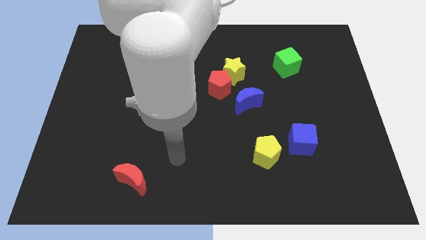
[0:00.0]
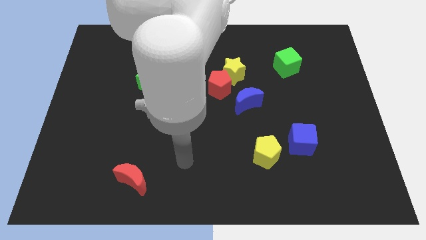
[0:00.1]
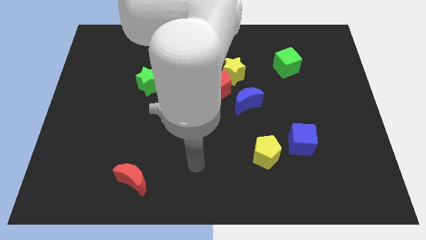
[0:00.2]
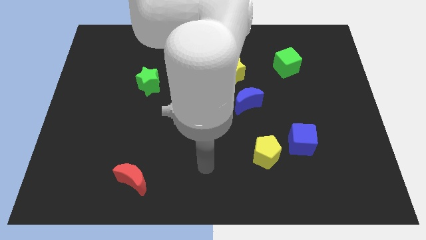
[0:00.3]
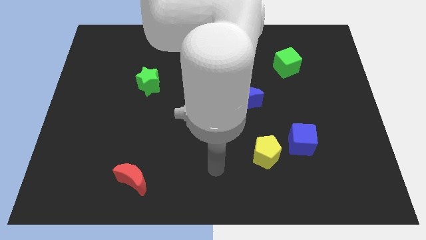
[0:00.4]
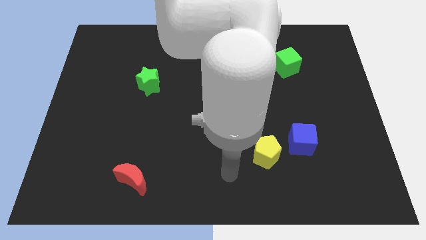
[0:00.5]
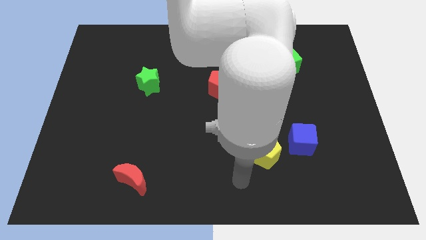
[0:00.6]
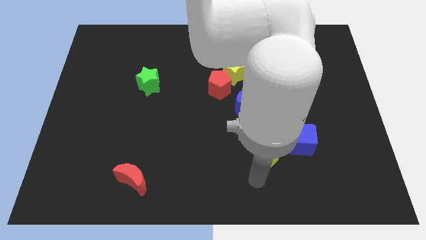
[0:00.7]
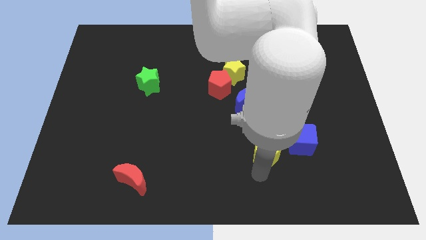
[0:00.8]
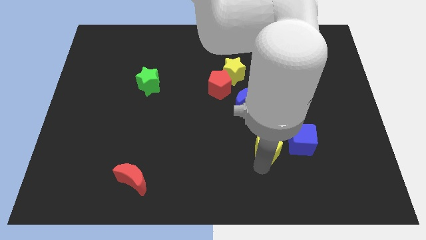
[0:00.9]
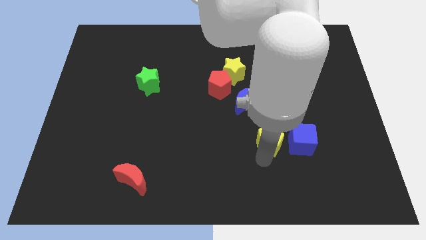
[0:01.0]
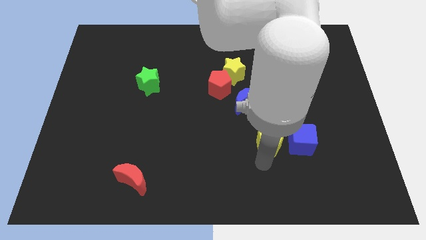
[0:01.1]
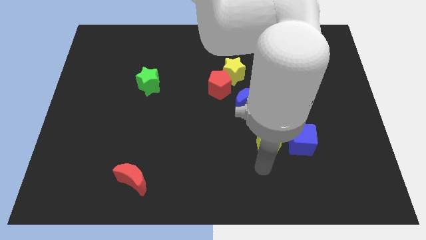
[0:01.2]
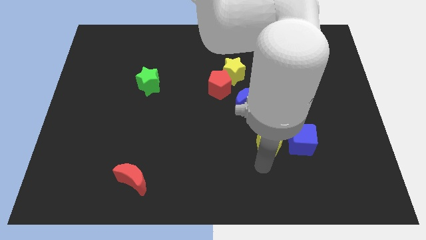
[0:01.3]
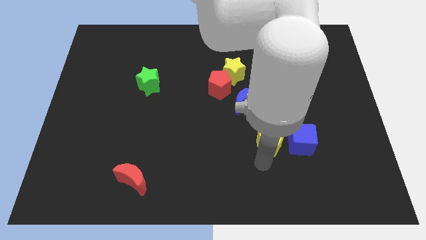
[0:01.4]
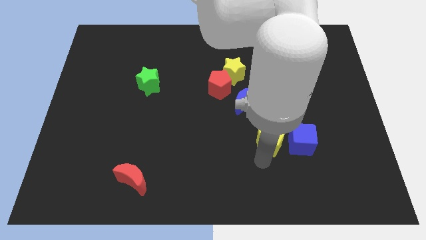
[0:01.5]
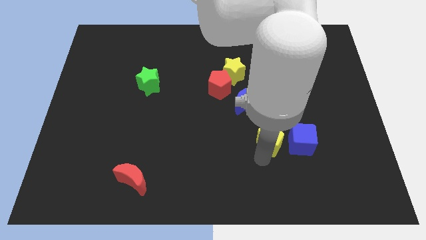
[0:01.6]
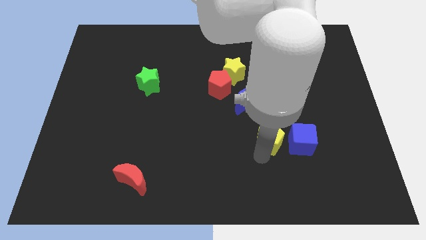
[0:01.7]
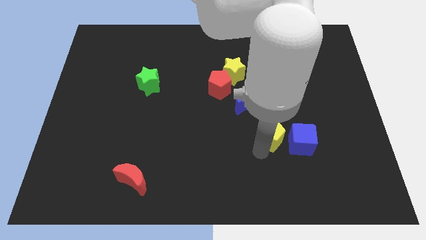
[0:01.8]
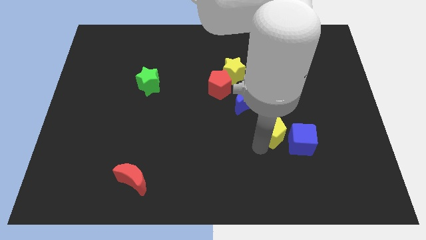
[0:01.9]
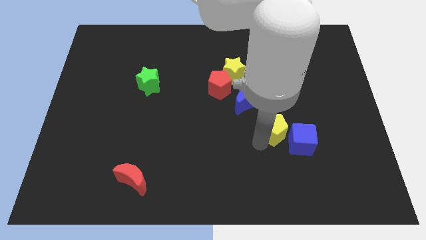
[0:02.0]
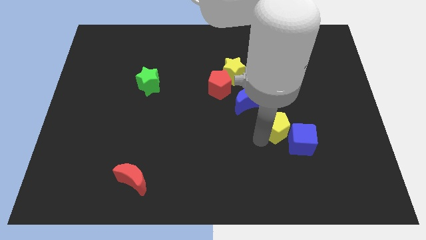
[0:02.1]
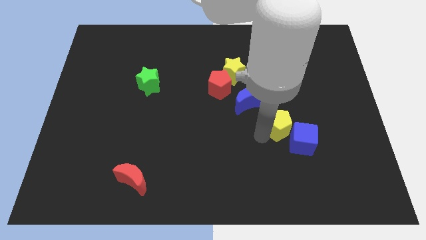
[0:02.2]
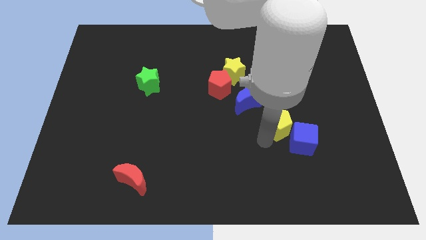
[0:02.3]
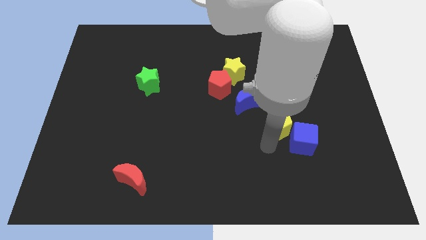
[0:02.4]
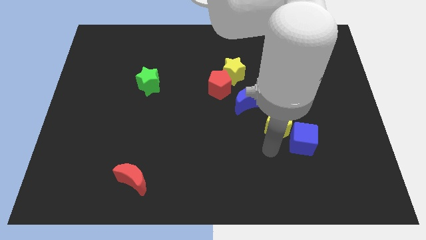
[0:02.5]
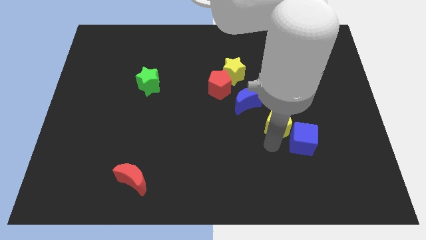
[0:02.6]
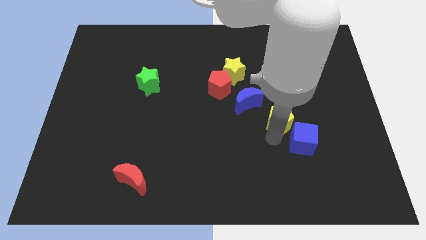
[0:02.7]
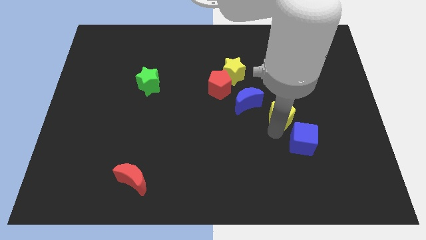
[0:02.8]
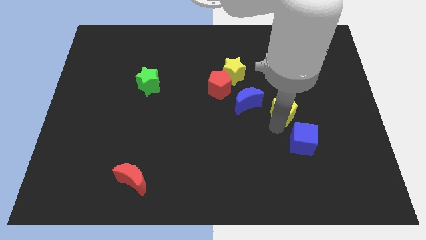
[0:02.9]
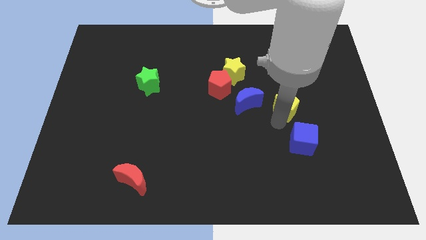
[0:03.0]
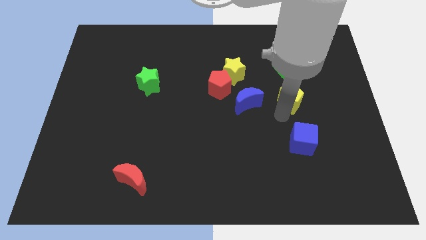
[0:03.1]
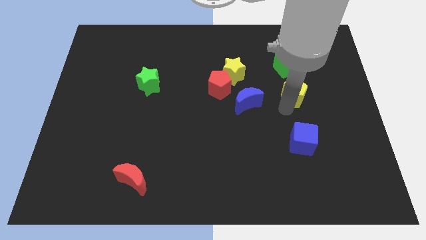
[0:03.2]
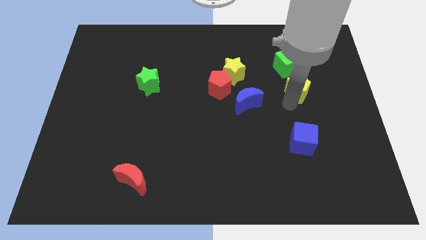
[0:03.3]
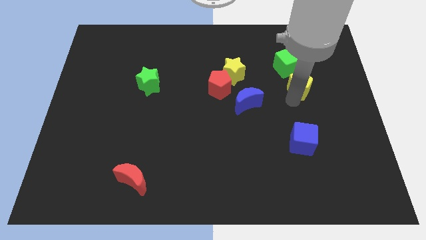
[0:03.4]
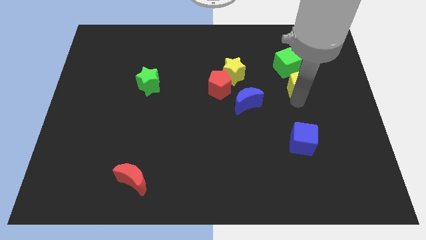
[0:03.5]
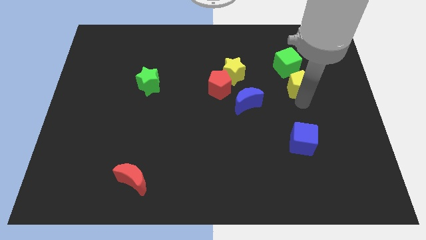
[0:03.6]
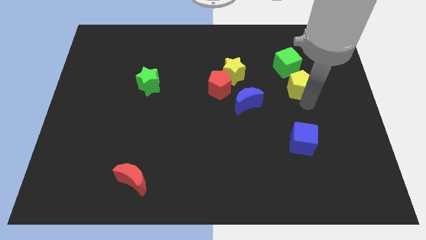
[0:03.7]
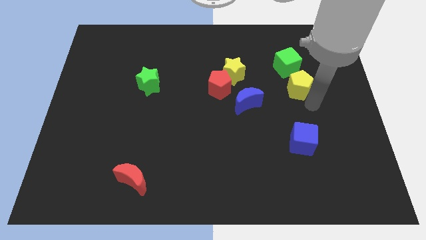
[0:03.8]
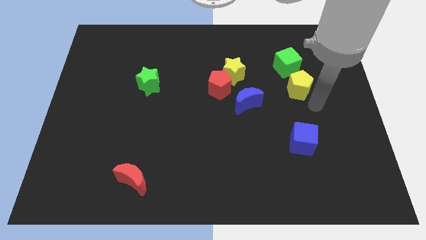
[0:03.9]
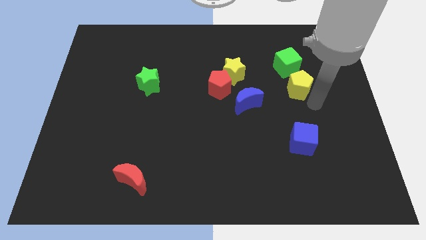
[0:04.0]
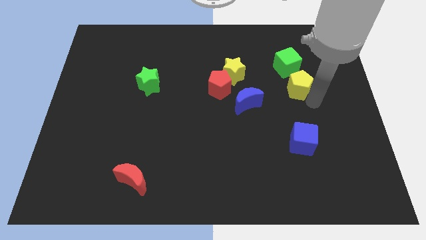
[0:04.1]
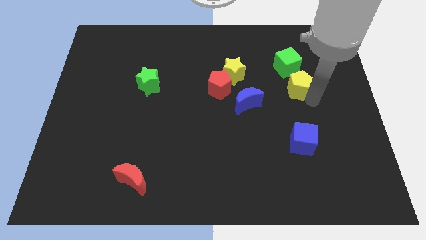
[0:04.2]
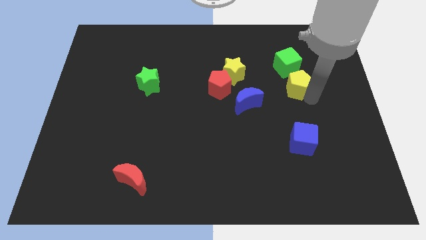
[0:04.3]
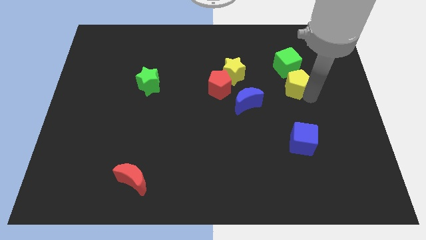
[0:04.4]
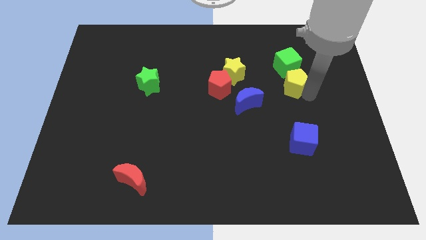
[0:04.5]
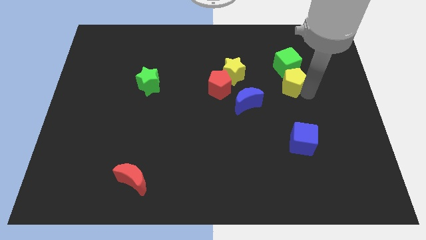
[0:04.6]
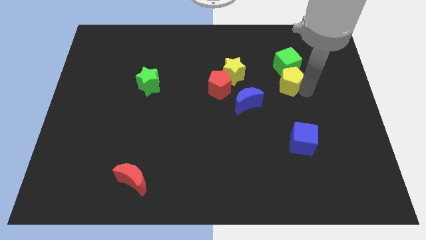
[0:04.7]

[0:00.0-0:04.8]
slide the yellow pentagon close to the green cube

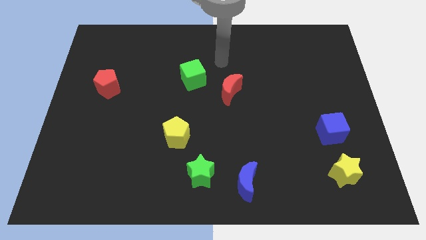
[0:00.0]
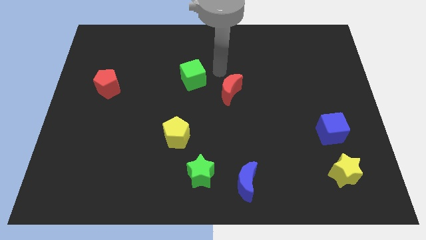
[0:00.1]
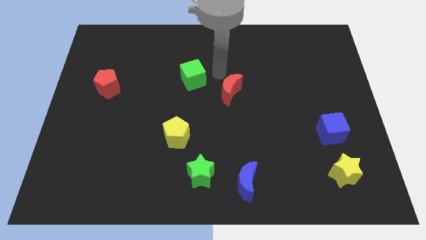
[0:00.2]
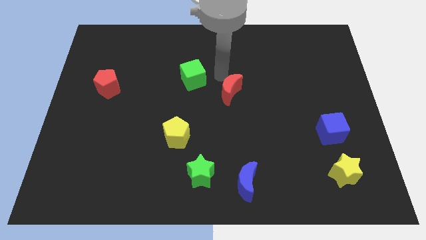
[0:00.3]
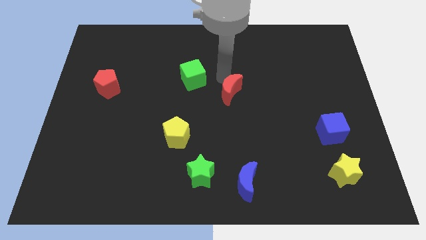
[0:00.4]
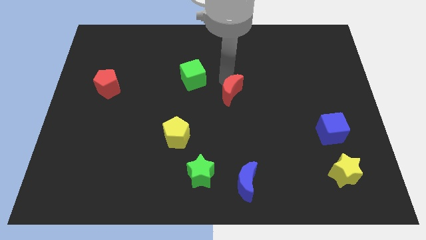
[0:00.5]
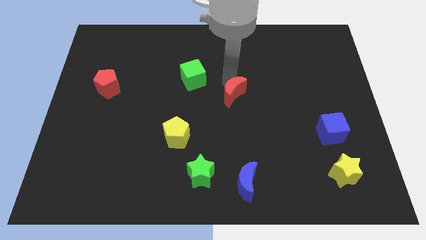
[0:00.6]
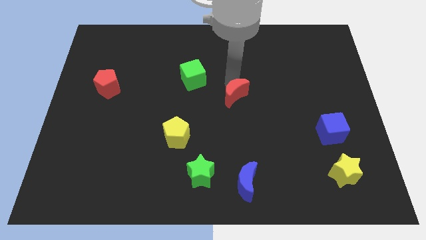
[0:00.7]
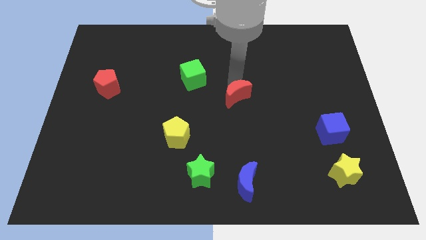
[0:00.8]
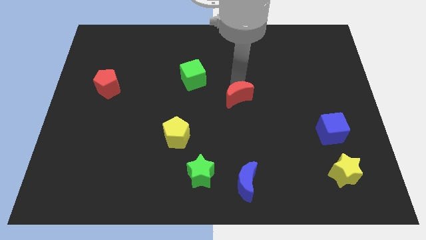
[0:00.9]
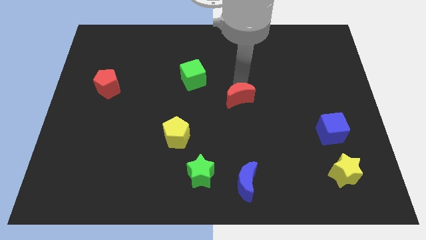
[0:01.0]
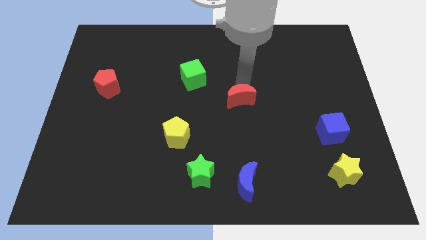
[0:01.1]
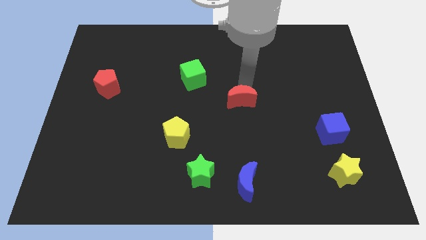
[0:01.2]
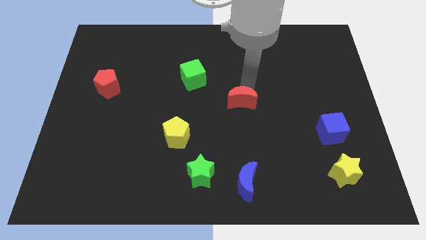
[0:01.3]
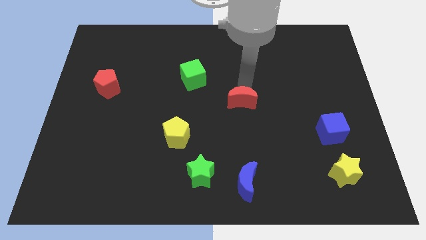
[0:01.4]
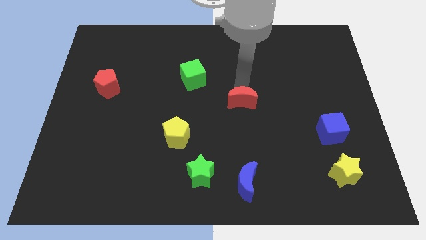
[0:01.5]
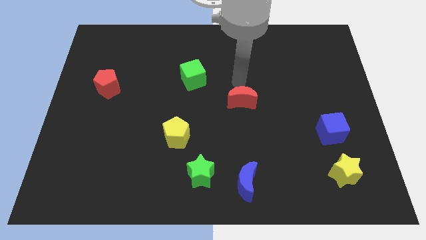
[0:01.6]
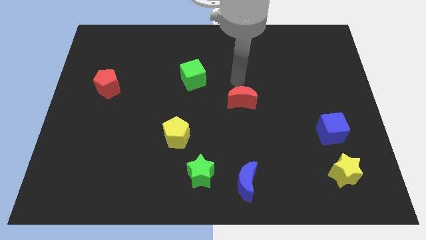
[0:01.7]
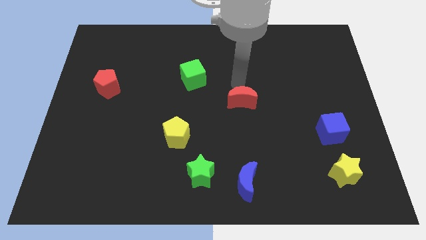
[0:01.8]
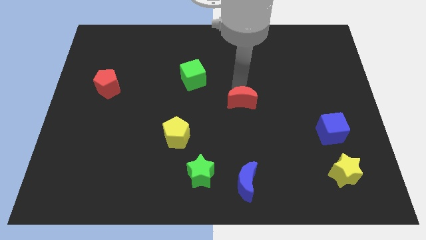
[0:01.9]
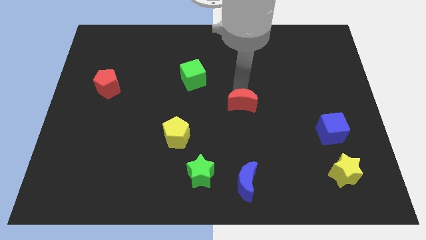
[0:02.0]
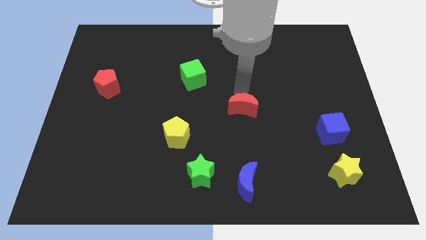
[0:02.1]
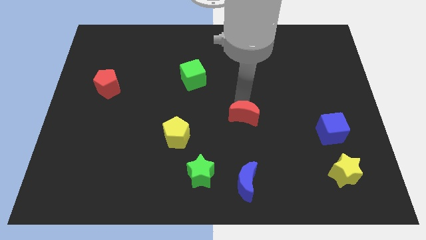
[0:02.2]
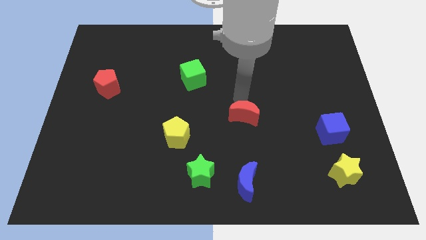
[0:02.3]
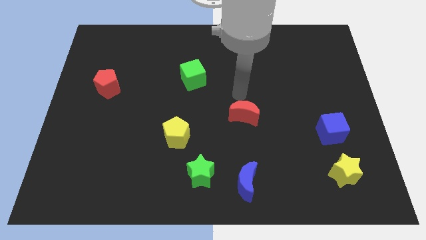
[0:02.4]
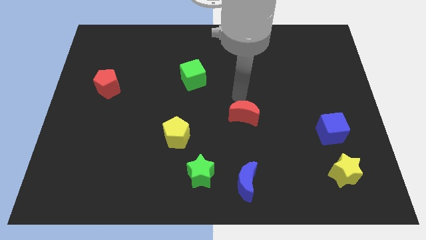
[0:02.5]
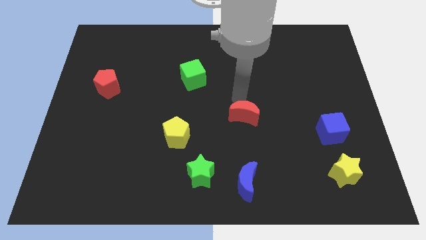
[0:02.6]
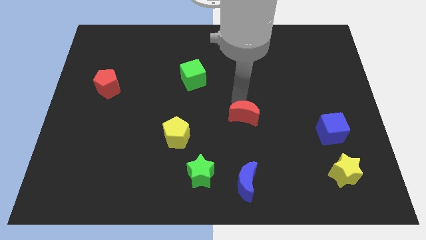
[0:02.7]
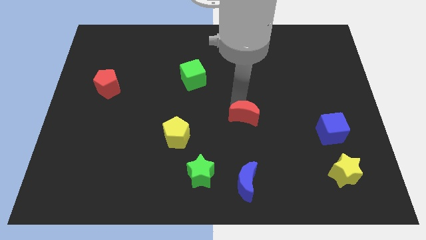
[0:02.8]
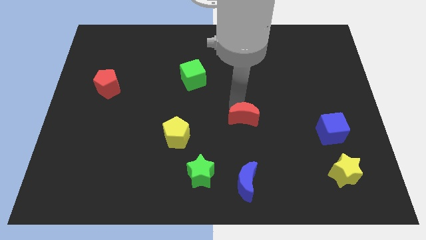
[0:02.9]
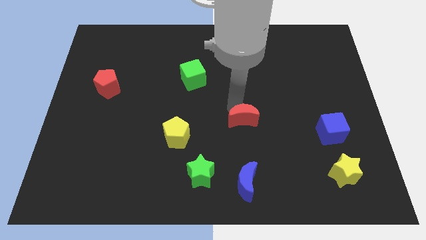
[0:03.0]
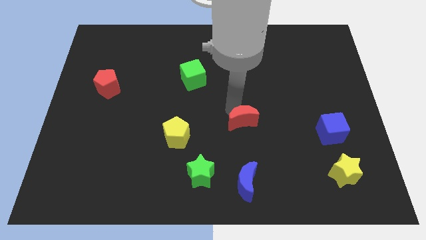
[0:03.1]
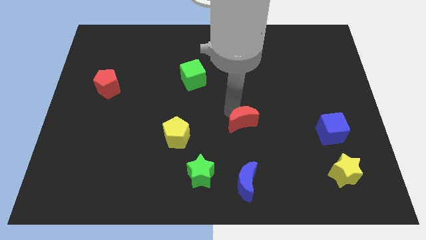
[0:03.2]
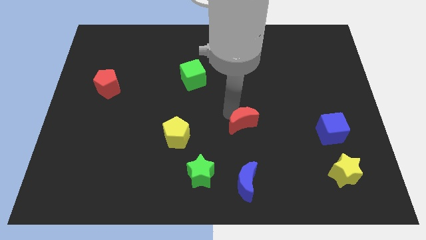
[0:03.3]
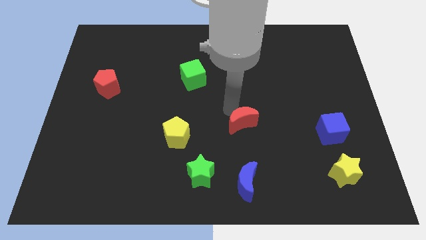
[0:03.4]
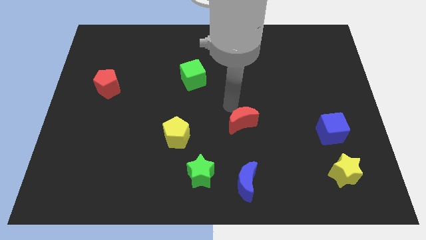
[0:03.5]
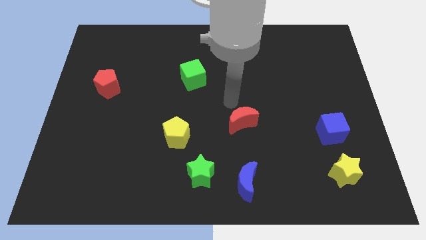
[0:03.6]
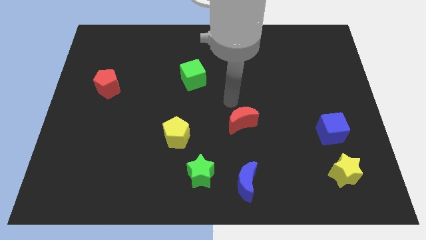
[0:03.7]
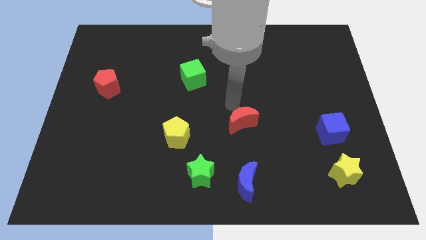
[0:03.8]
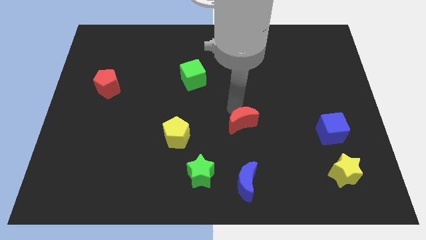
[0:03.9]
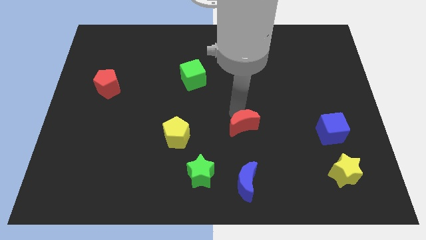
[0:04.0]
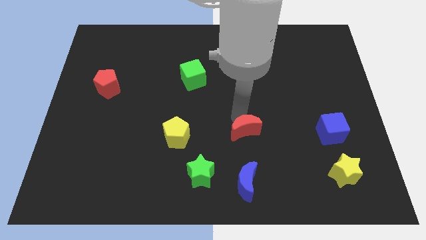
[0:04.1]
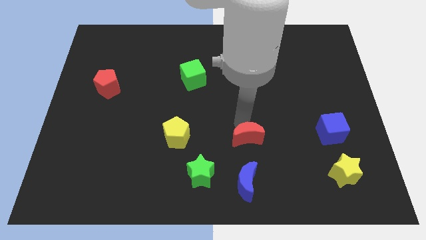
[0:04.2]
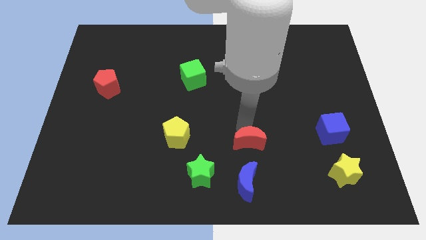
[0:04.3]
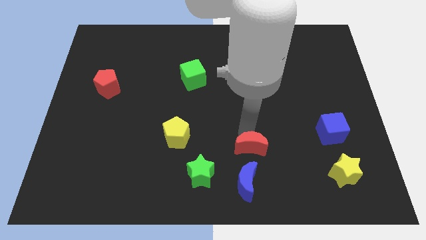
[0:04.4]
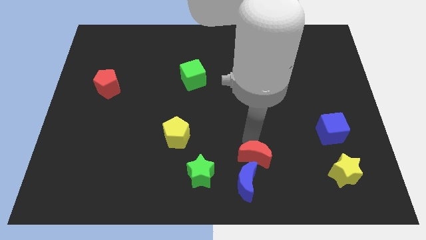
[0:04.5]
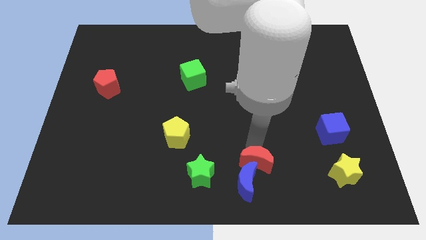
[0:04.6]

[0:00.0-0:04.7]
put the red moon to the blue moon
